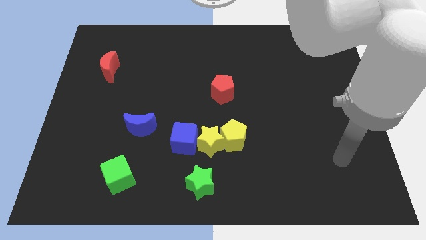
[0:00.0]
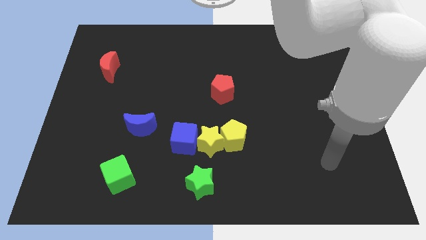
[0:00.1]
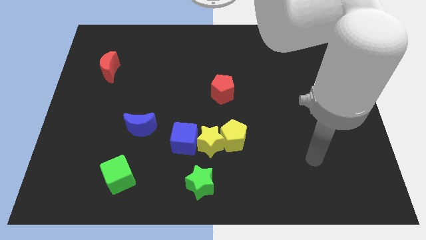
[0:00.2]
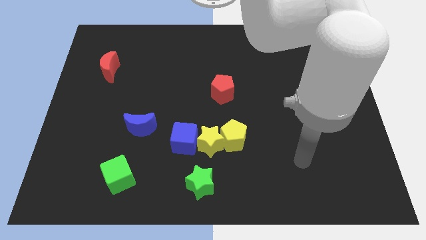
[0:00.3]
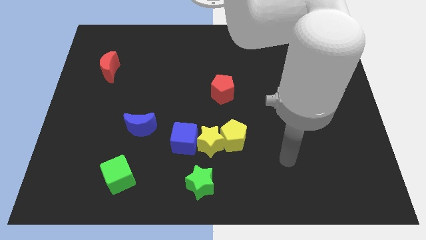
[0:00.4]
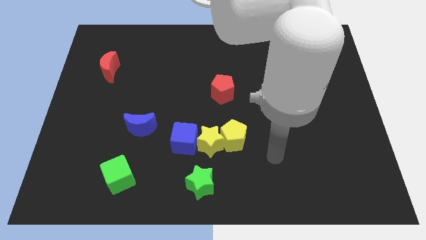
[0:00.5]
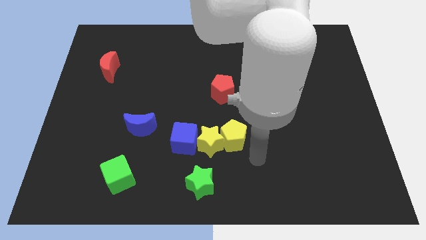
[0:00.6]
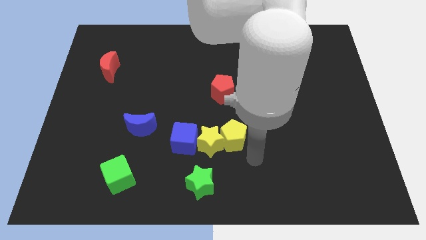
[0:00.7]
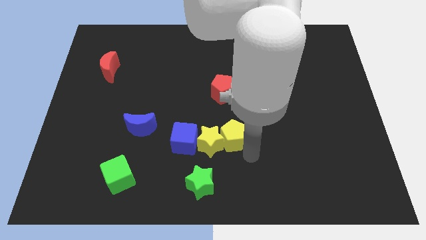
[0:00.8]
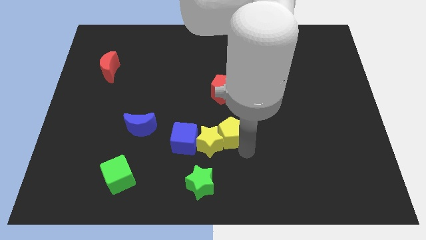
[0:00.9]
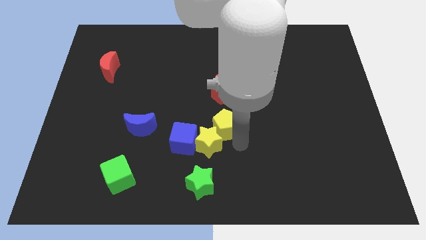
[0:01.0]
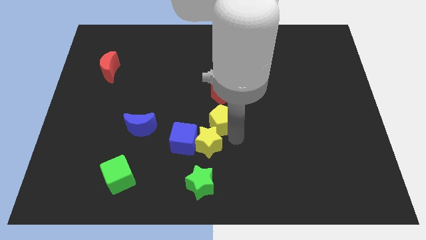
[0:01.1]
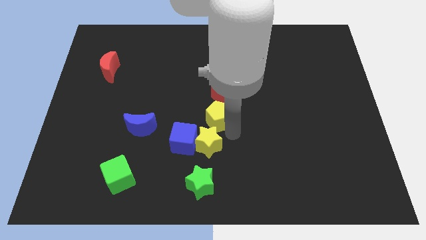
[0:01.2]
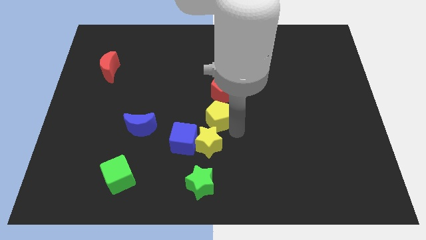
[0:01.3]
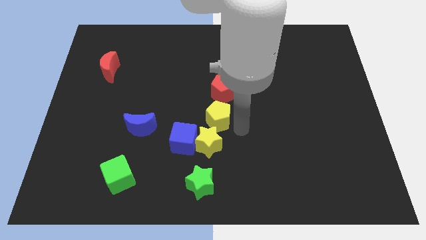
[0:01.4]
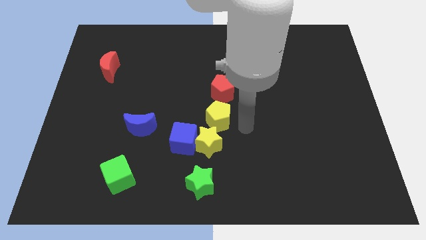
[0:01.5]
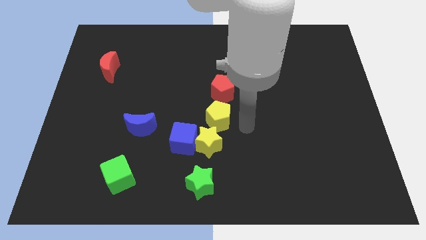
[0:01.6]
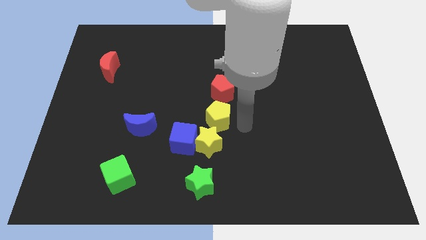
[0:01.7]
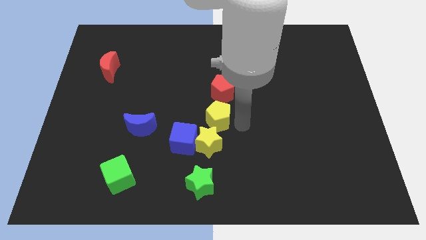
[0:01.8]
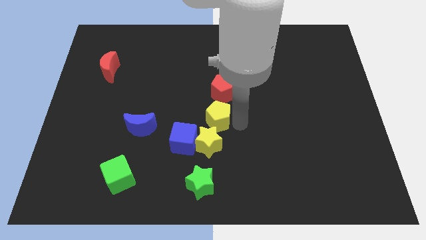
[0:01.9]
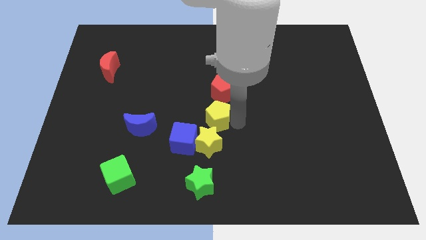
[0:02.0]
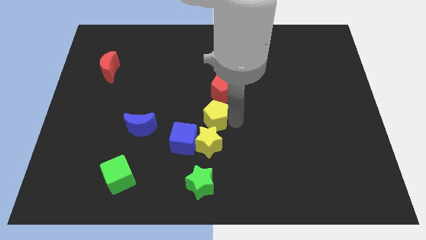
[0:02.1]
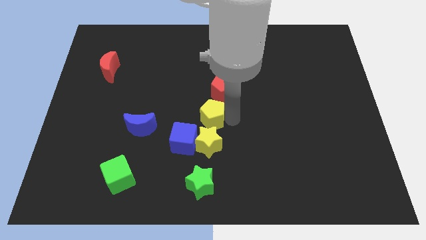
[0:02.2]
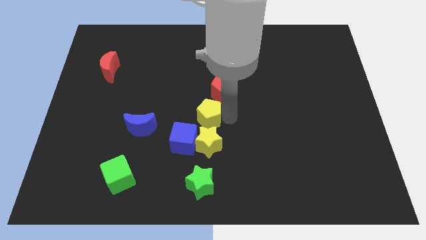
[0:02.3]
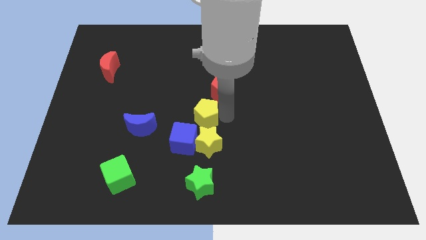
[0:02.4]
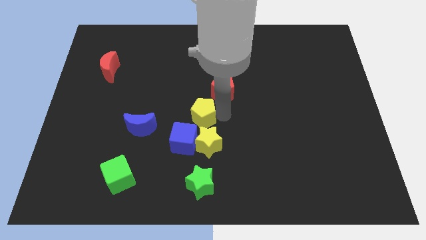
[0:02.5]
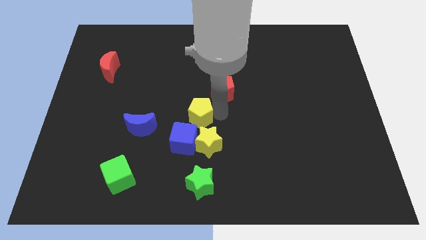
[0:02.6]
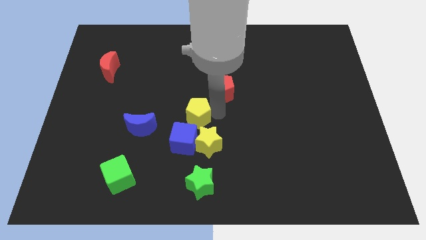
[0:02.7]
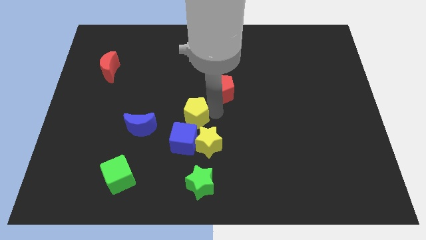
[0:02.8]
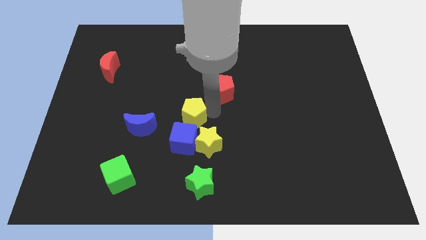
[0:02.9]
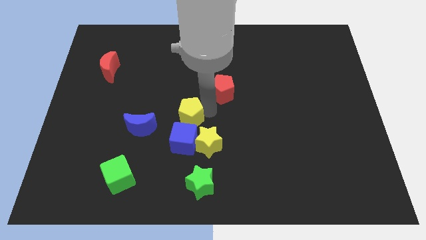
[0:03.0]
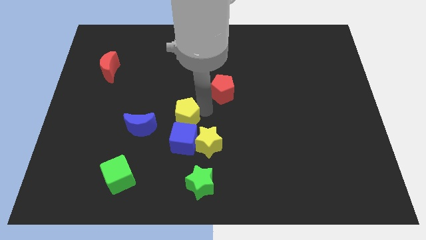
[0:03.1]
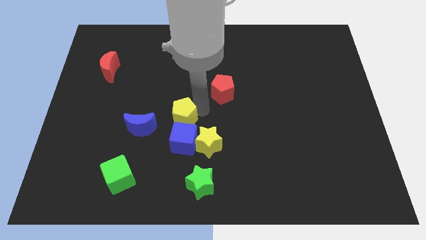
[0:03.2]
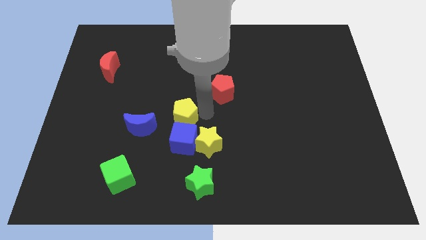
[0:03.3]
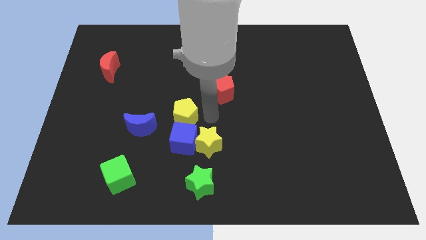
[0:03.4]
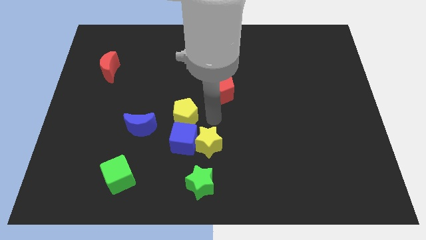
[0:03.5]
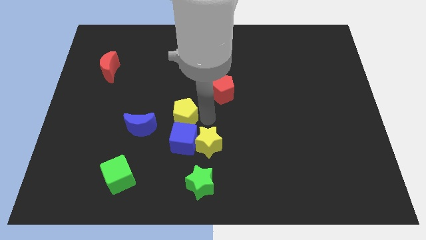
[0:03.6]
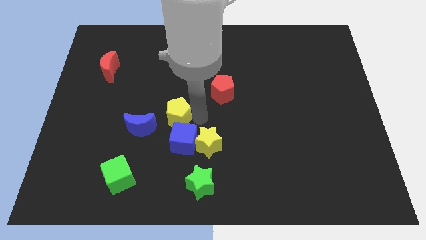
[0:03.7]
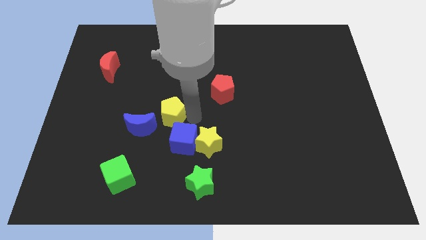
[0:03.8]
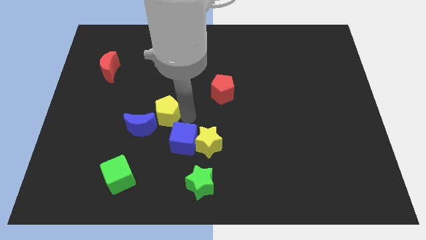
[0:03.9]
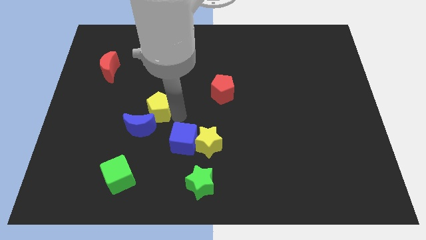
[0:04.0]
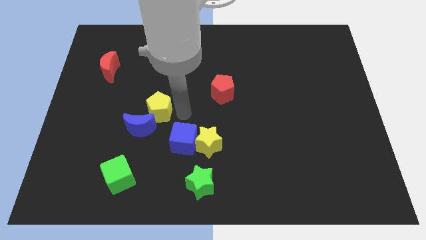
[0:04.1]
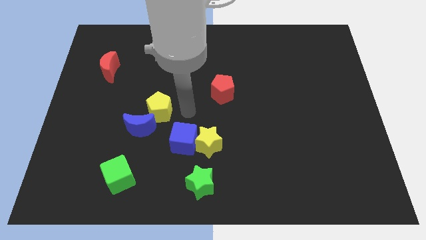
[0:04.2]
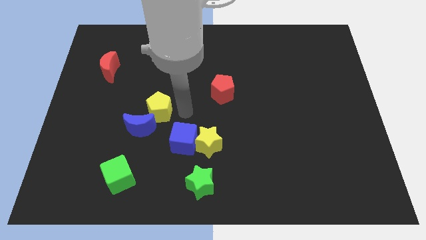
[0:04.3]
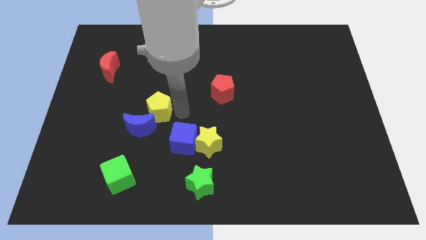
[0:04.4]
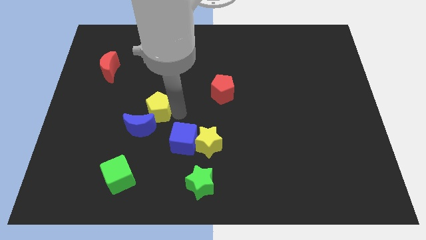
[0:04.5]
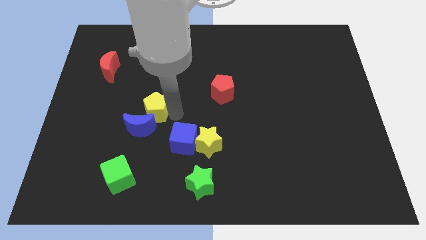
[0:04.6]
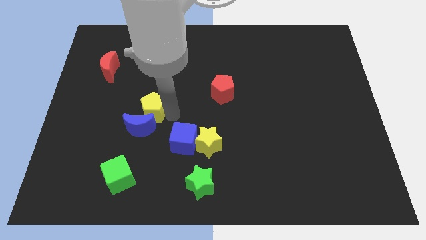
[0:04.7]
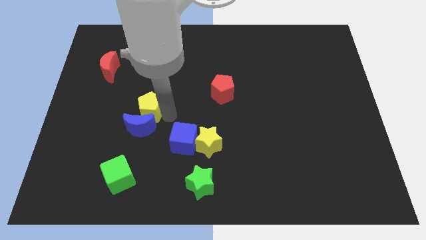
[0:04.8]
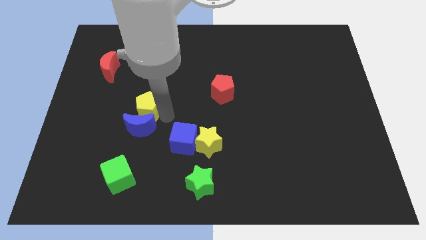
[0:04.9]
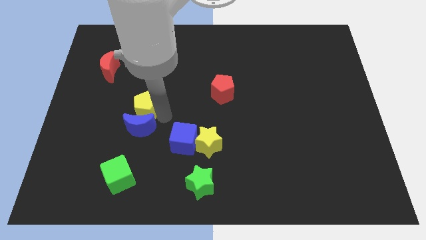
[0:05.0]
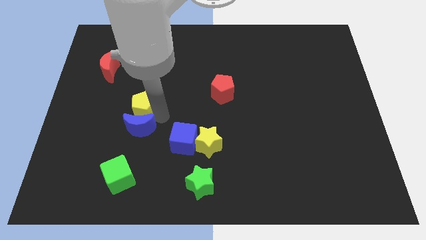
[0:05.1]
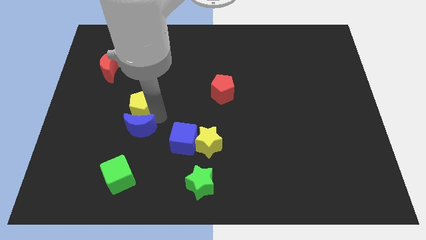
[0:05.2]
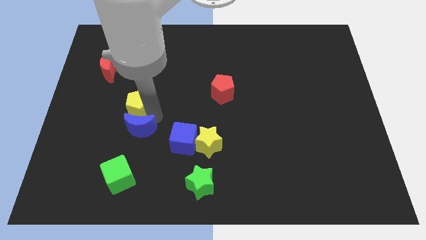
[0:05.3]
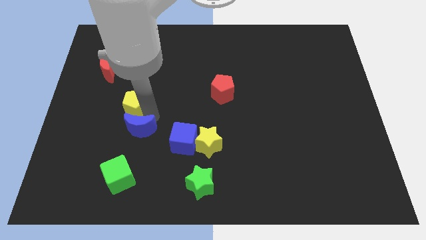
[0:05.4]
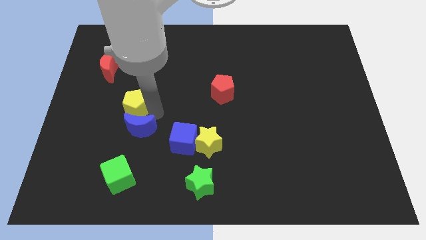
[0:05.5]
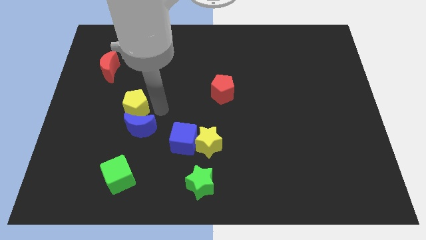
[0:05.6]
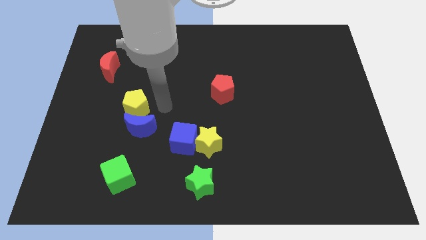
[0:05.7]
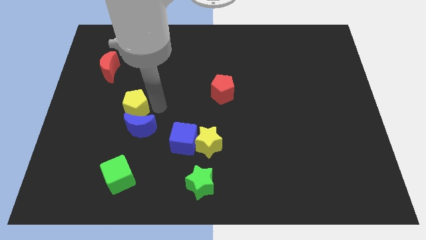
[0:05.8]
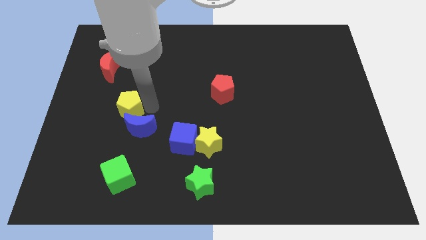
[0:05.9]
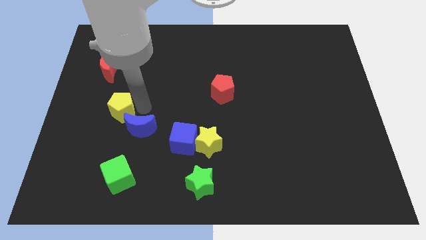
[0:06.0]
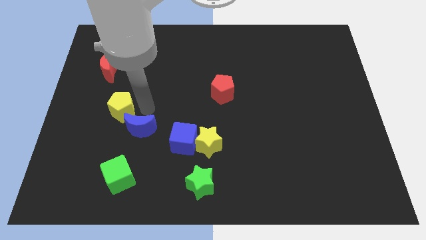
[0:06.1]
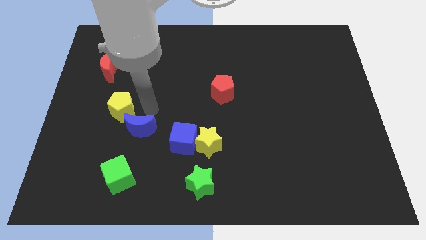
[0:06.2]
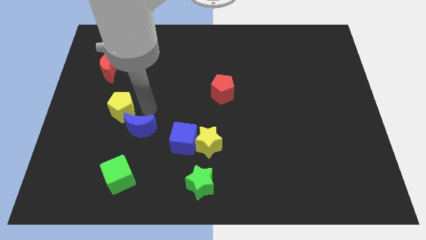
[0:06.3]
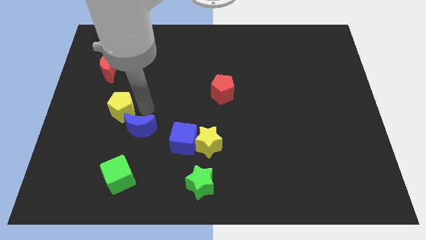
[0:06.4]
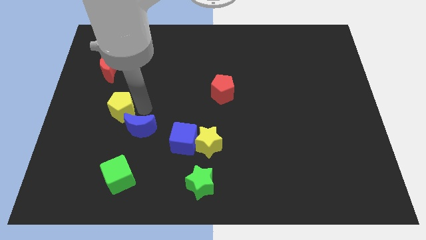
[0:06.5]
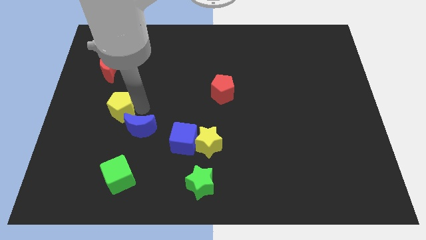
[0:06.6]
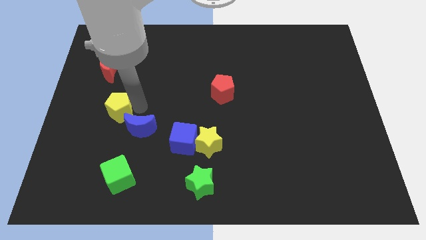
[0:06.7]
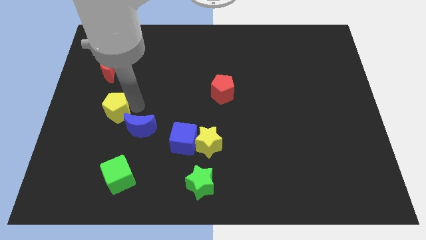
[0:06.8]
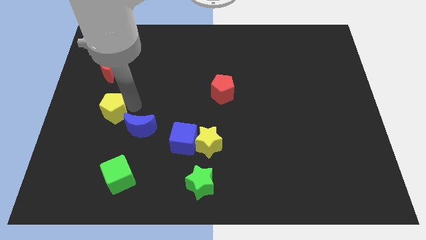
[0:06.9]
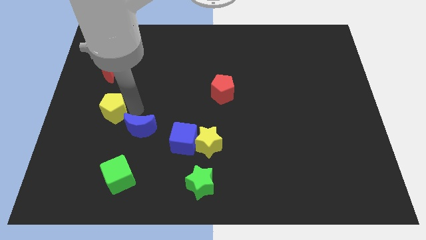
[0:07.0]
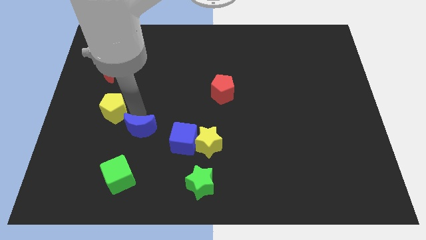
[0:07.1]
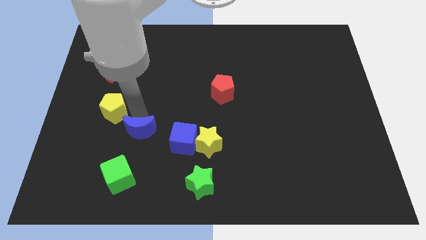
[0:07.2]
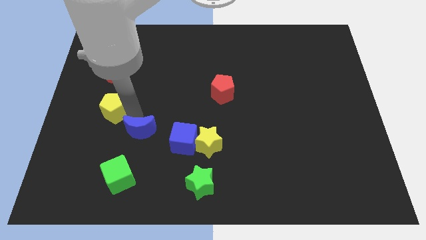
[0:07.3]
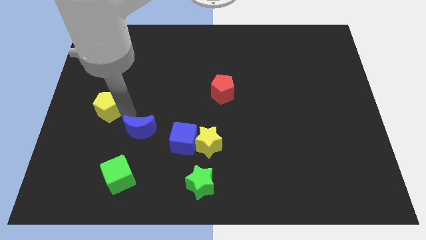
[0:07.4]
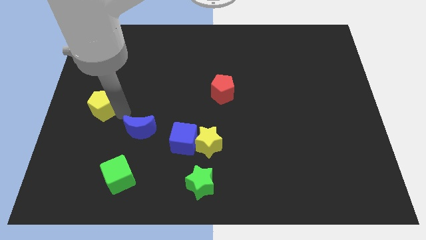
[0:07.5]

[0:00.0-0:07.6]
slide the yellow pentagon to the left side of the board

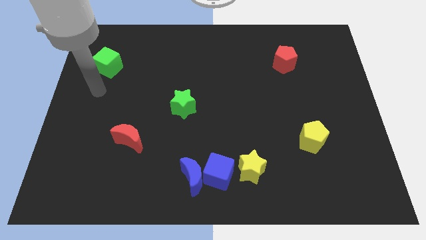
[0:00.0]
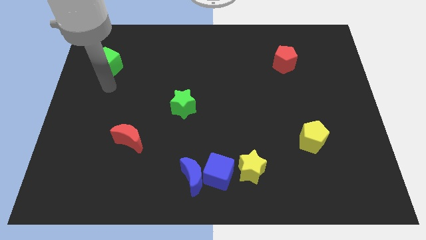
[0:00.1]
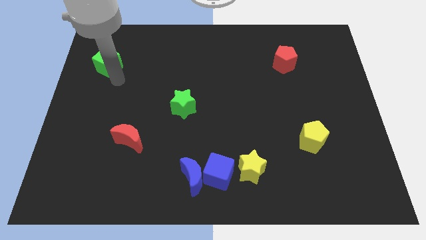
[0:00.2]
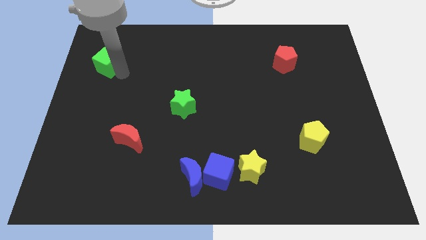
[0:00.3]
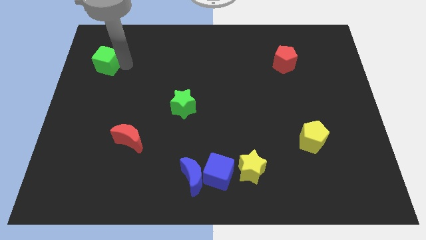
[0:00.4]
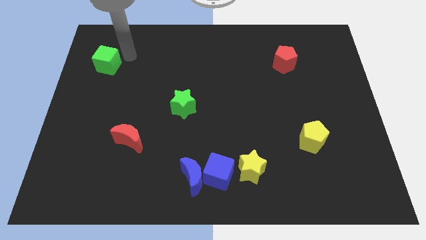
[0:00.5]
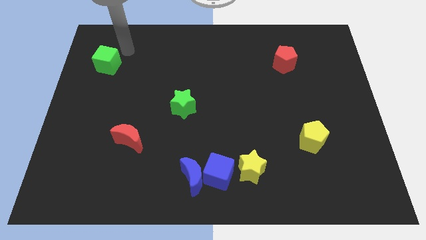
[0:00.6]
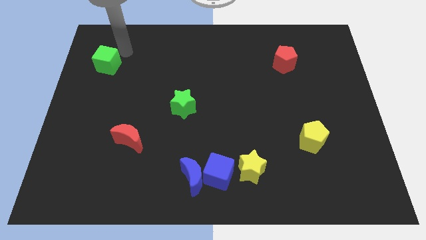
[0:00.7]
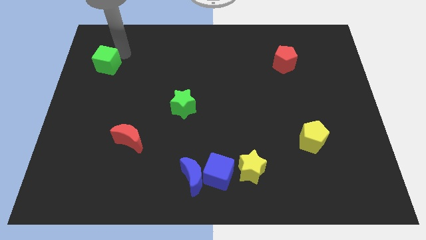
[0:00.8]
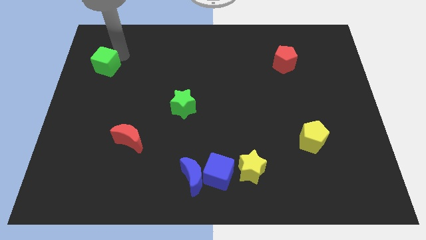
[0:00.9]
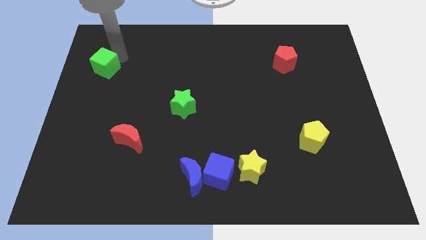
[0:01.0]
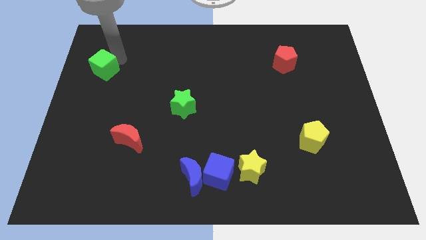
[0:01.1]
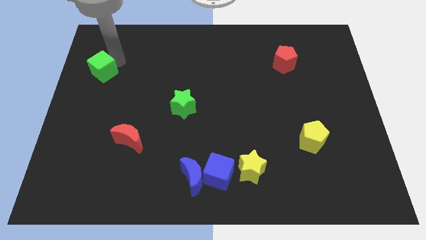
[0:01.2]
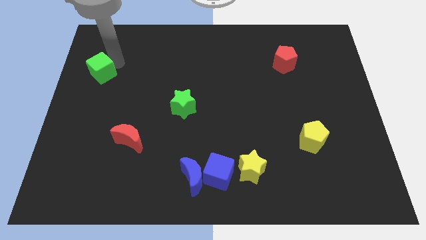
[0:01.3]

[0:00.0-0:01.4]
put the green cube to the left side
